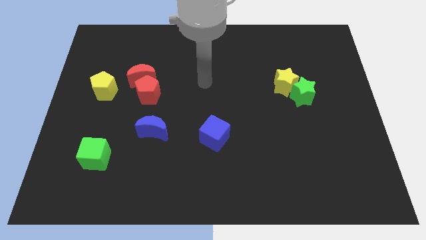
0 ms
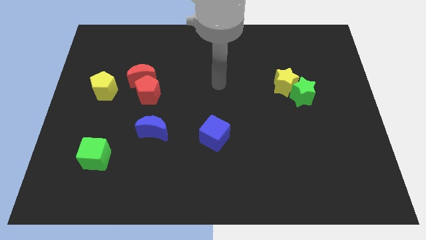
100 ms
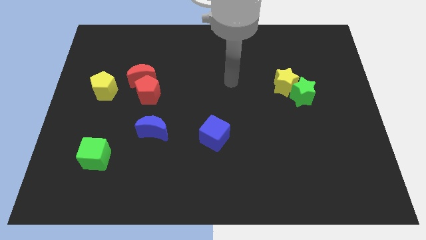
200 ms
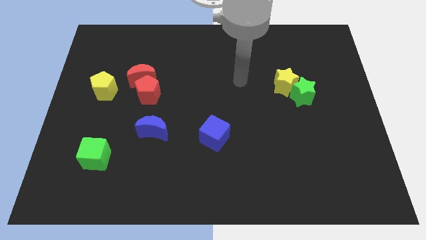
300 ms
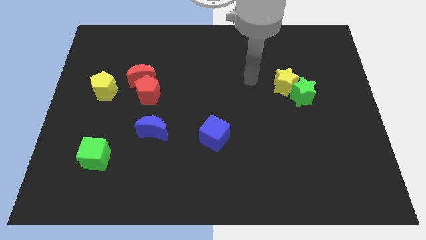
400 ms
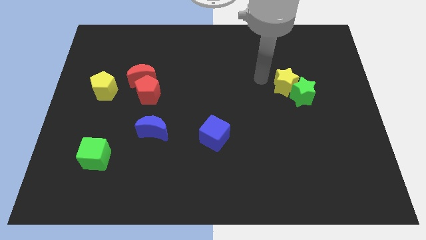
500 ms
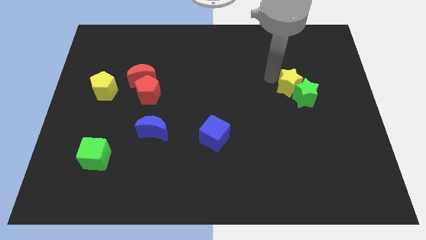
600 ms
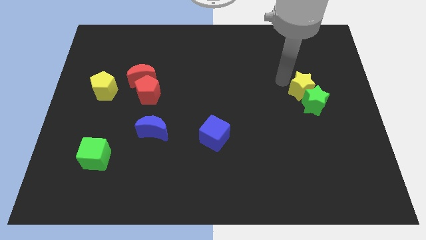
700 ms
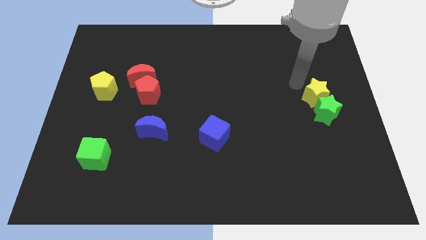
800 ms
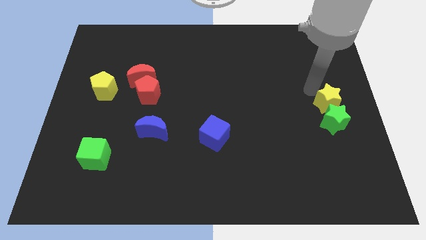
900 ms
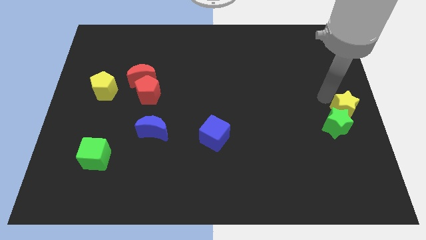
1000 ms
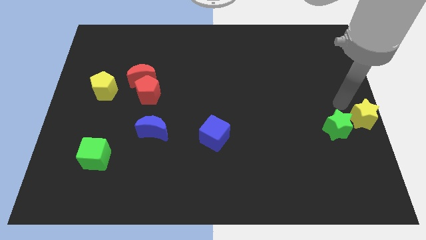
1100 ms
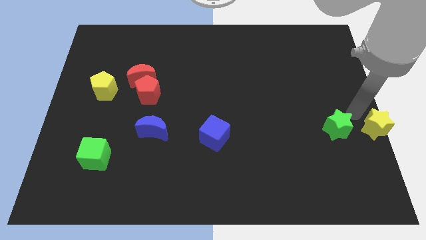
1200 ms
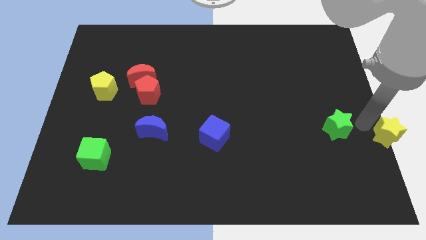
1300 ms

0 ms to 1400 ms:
move the green star away from the yellow star

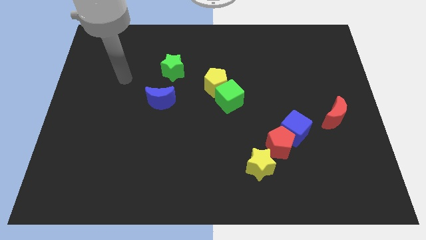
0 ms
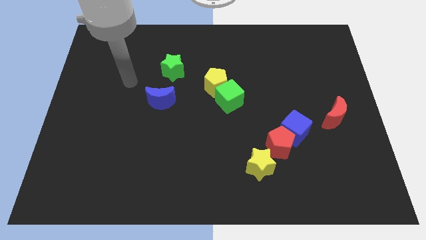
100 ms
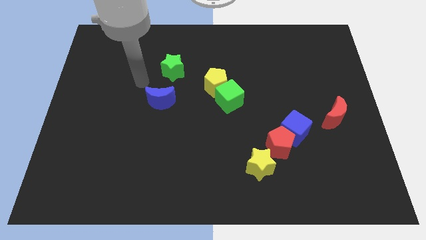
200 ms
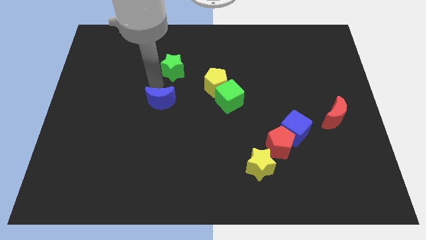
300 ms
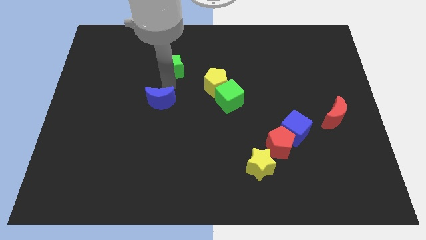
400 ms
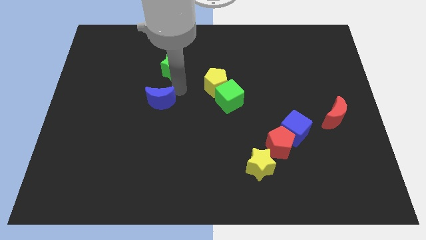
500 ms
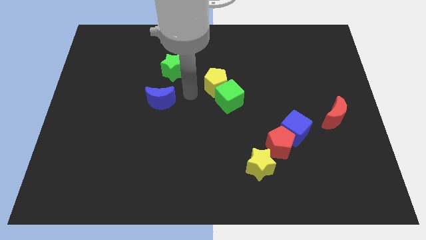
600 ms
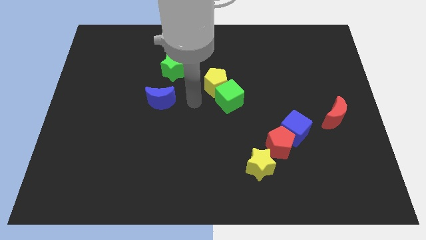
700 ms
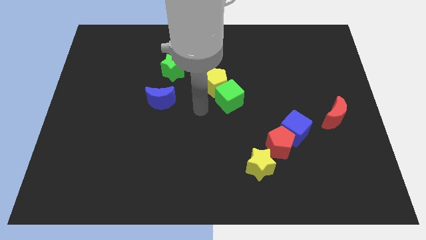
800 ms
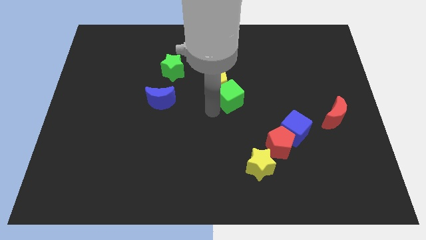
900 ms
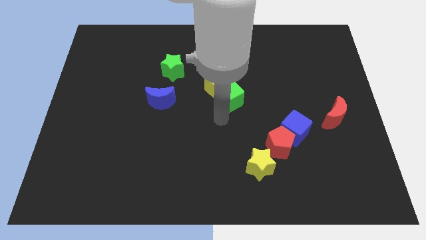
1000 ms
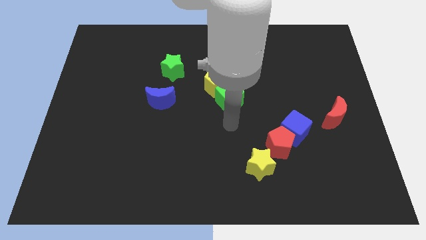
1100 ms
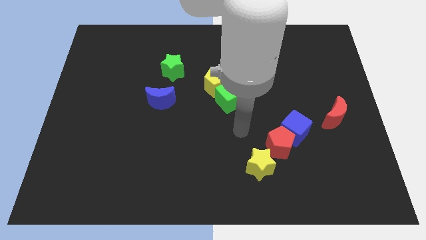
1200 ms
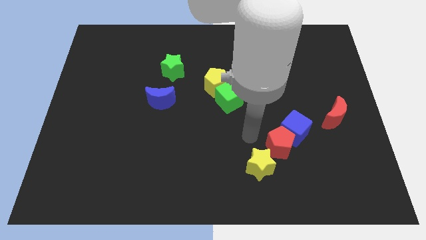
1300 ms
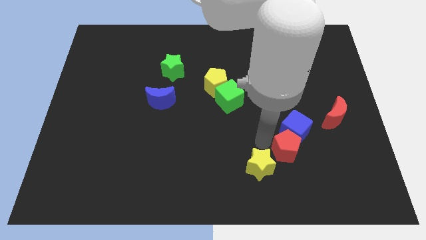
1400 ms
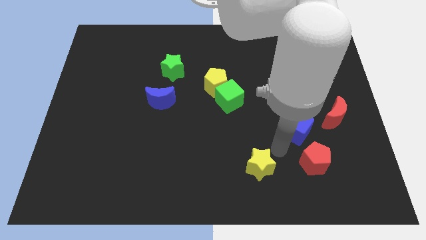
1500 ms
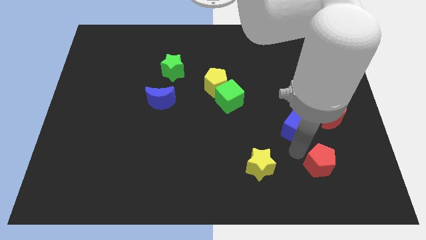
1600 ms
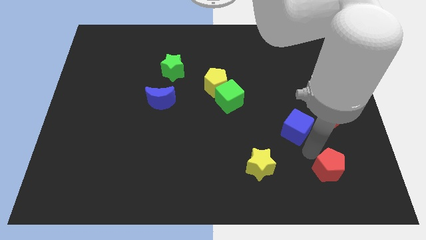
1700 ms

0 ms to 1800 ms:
move the blue cube away from the red pentagon

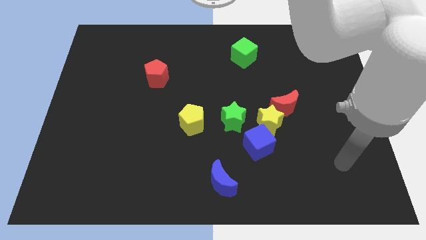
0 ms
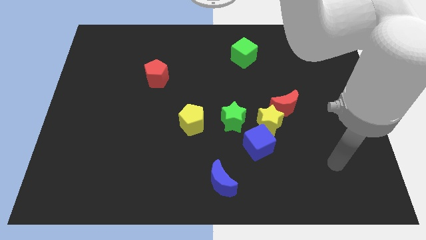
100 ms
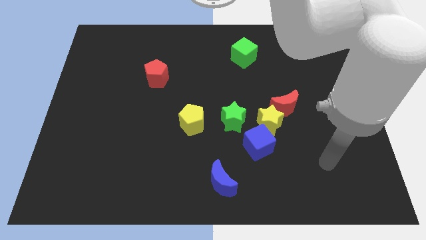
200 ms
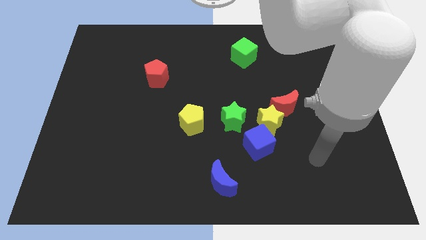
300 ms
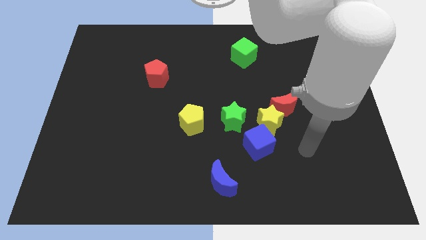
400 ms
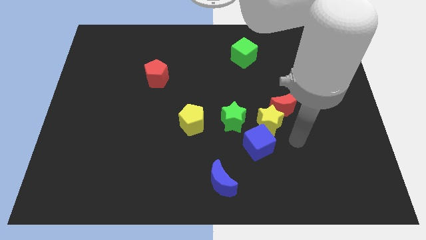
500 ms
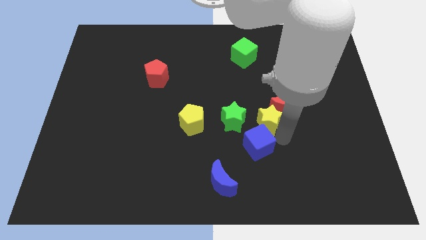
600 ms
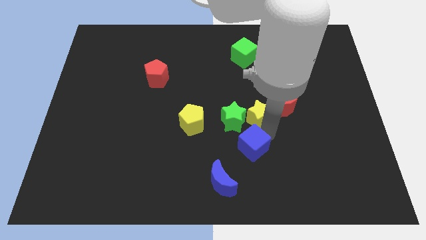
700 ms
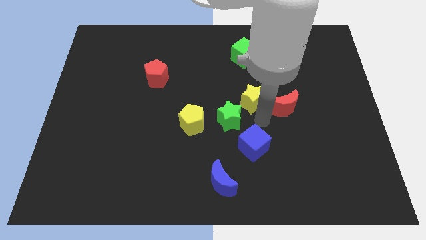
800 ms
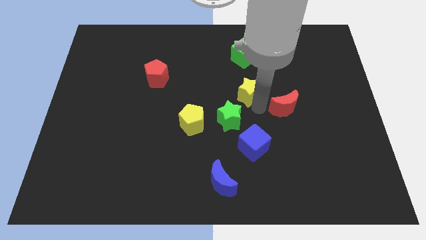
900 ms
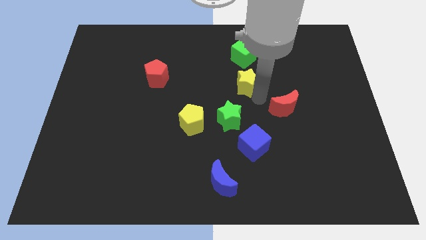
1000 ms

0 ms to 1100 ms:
move the red moon away from the yellow star

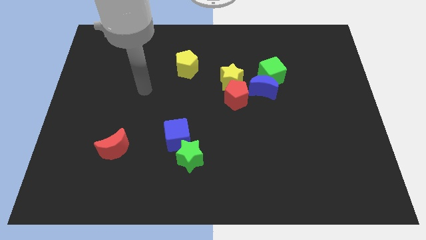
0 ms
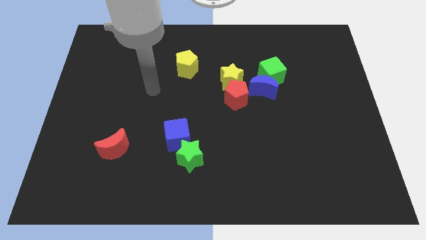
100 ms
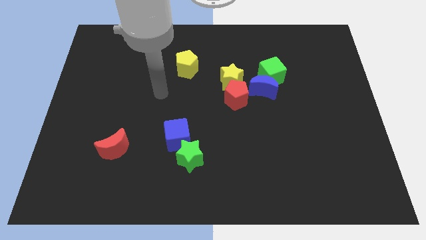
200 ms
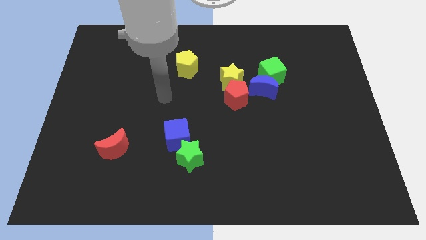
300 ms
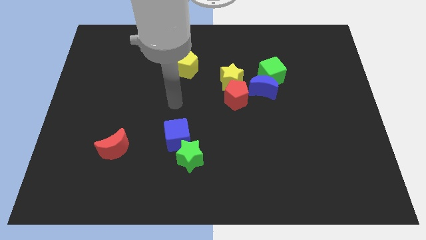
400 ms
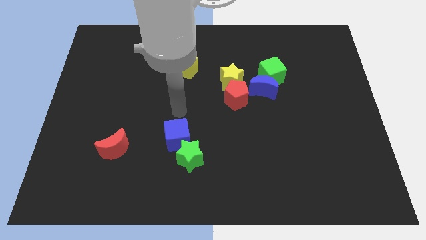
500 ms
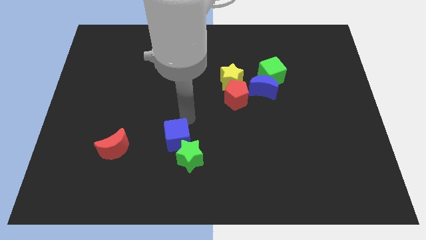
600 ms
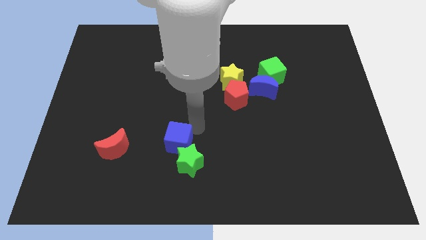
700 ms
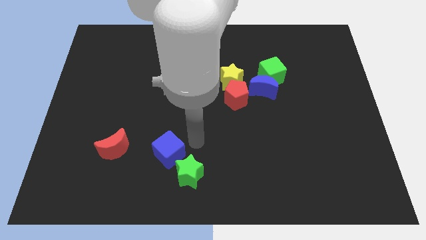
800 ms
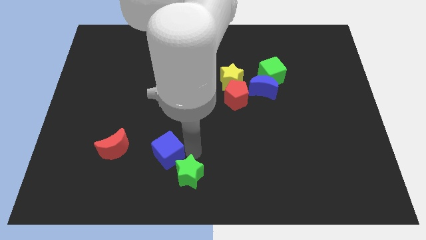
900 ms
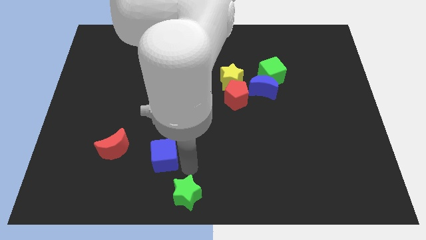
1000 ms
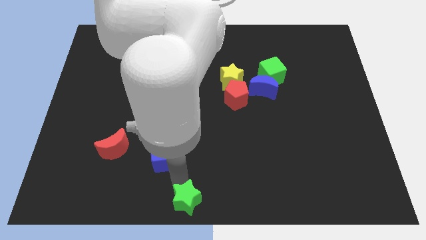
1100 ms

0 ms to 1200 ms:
separate the blue cube from the green star

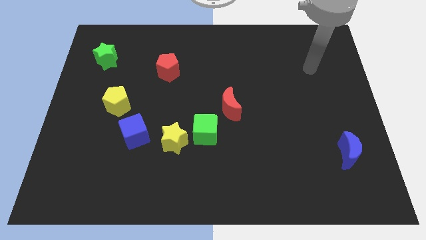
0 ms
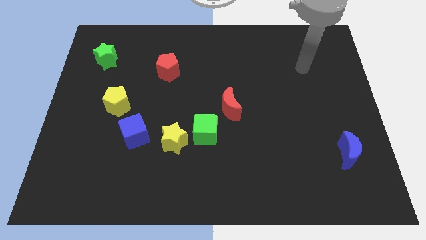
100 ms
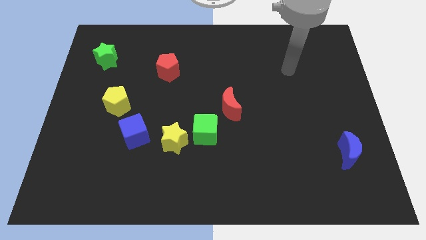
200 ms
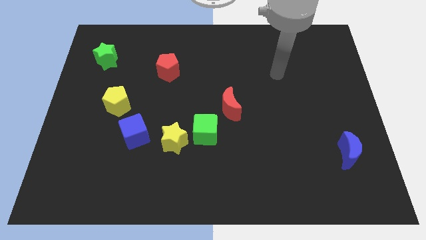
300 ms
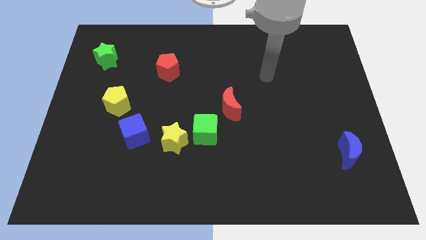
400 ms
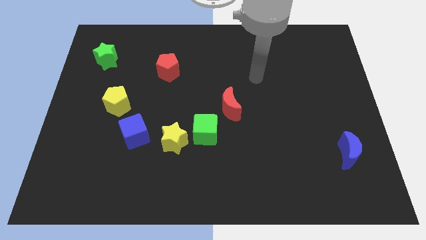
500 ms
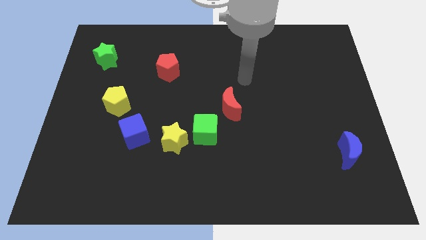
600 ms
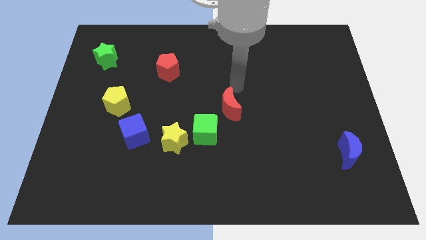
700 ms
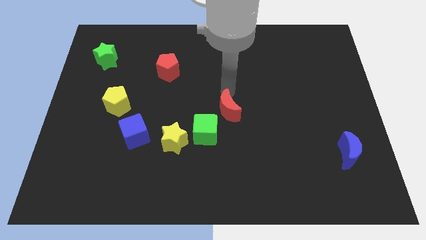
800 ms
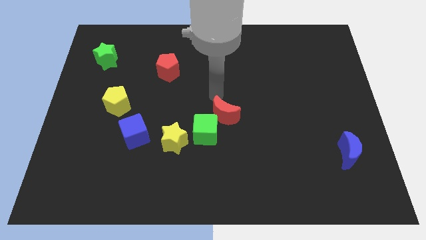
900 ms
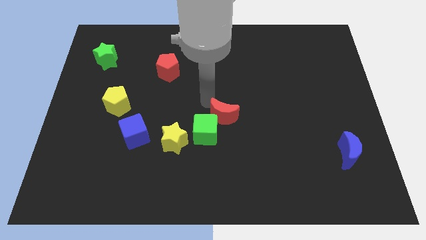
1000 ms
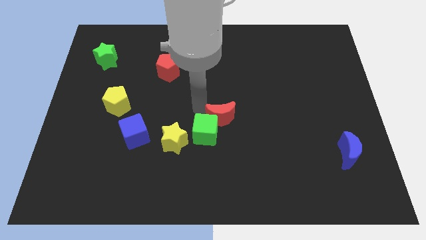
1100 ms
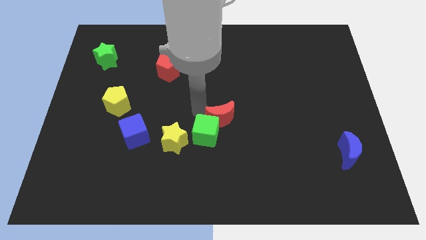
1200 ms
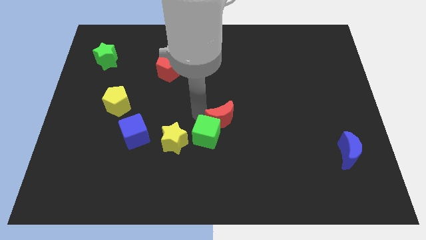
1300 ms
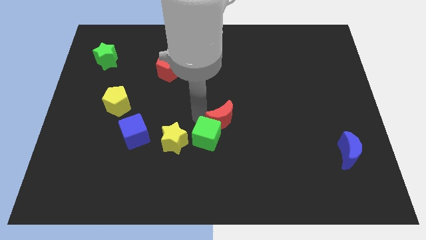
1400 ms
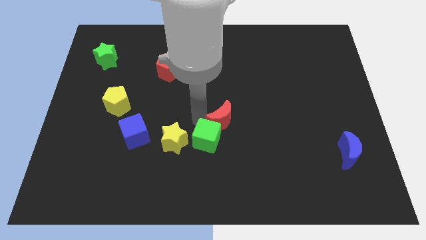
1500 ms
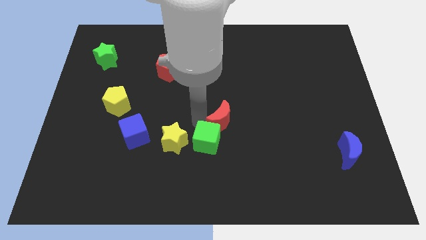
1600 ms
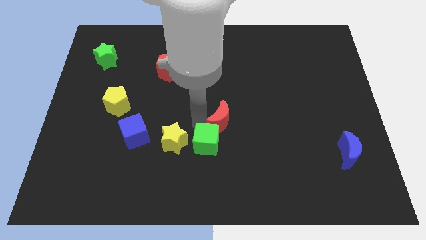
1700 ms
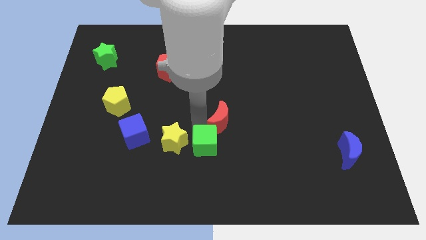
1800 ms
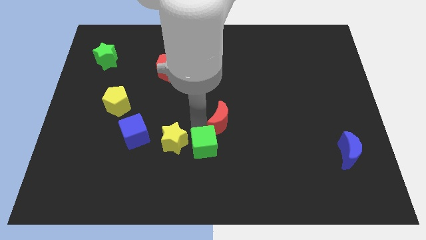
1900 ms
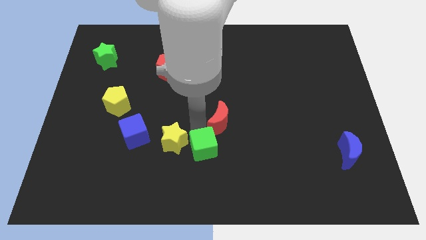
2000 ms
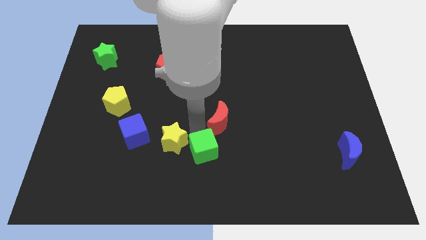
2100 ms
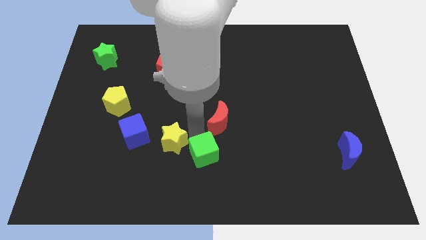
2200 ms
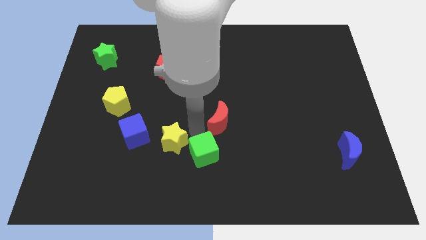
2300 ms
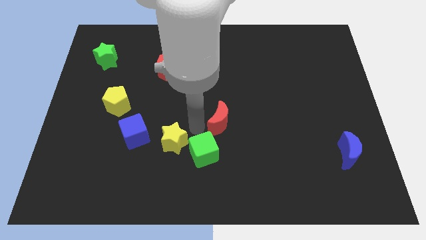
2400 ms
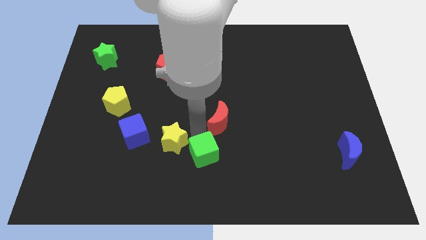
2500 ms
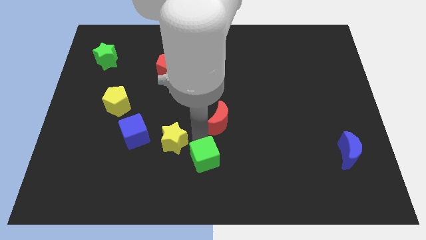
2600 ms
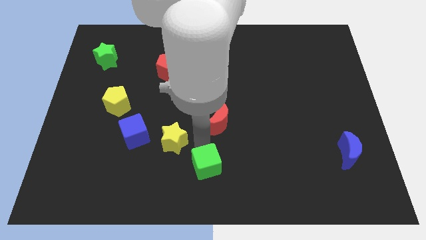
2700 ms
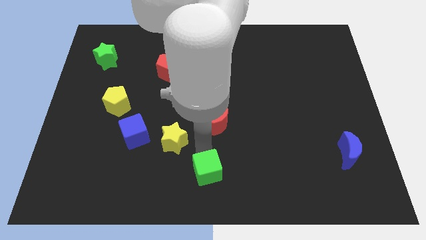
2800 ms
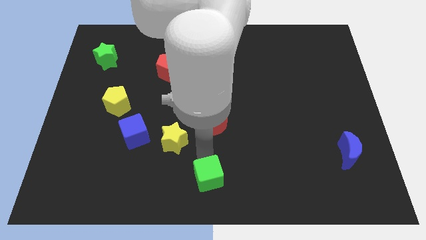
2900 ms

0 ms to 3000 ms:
separate the green cube from the yellow star and red moon

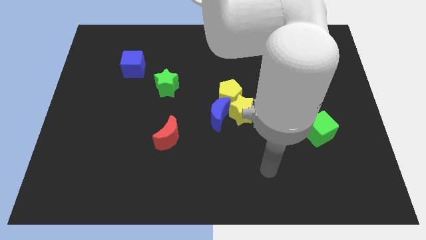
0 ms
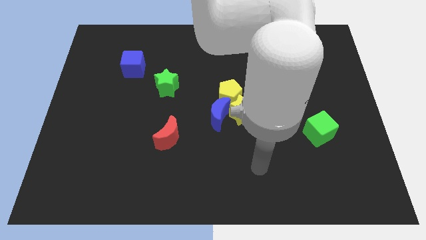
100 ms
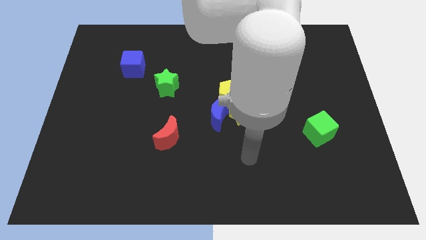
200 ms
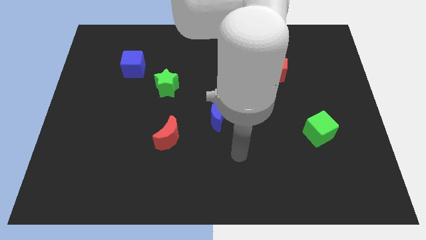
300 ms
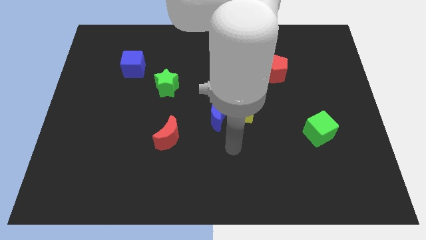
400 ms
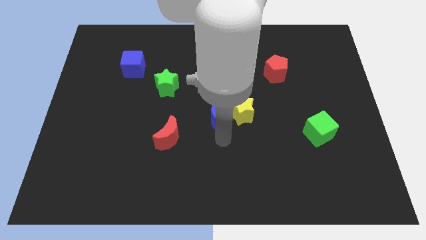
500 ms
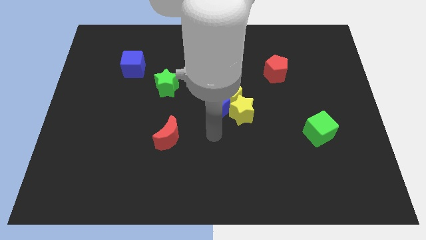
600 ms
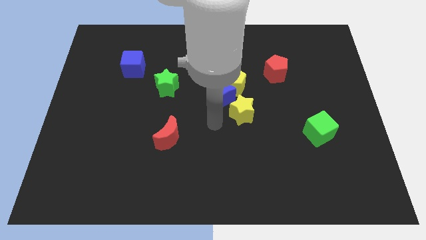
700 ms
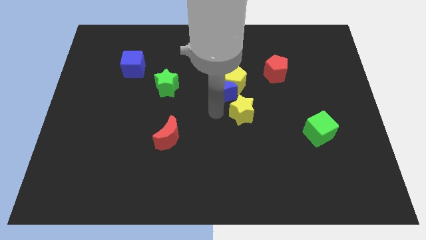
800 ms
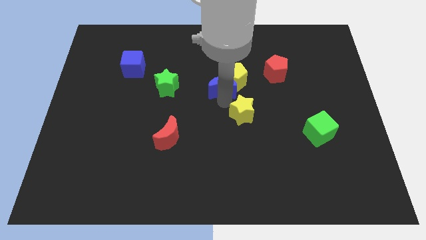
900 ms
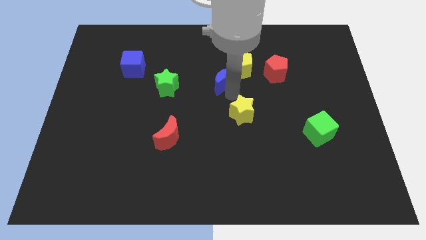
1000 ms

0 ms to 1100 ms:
separate the yellow star from the blue moon and yellow pentagon
